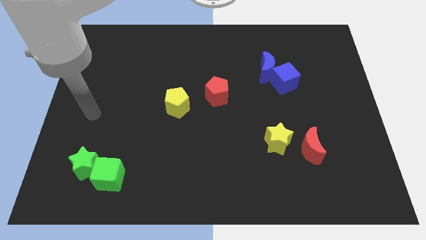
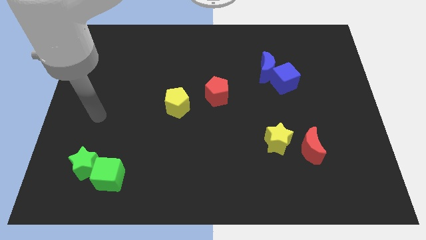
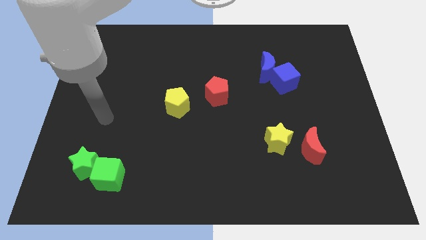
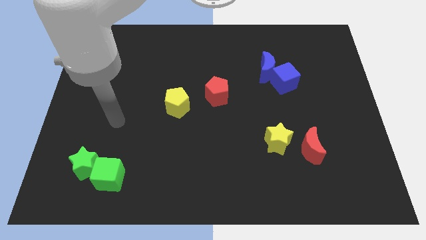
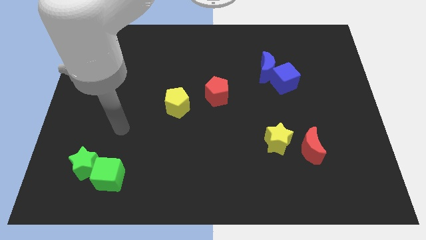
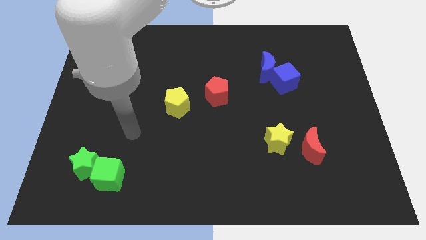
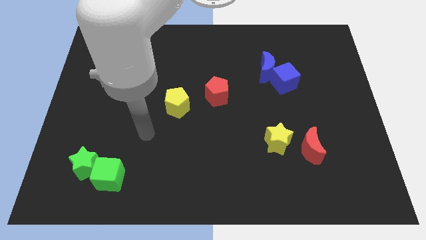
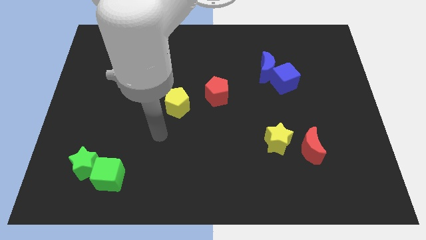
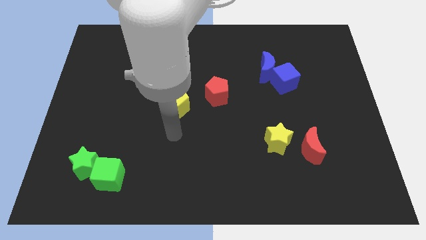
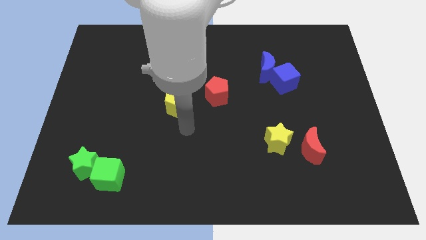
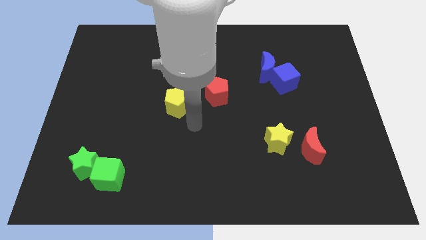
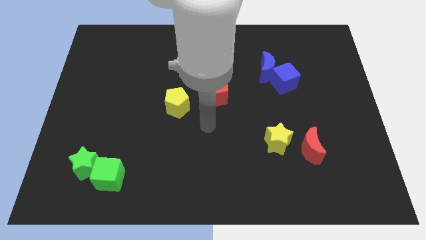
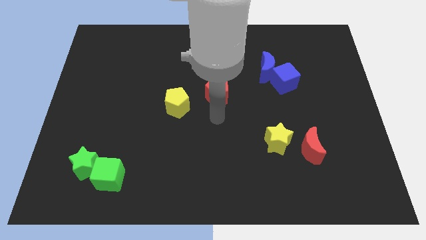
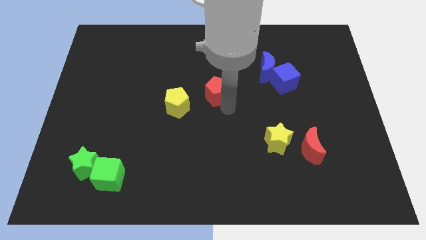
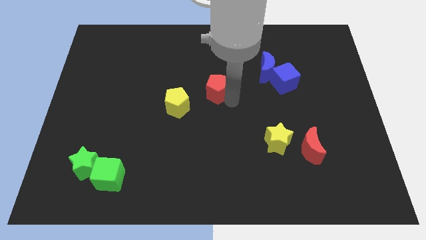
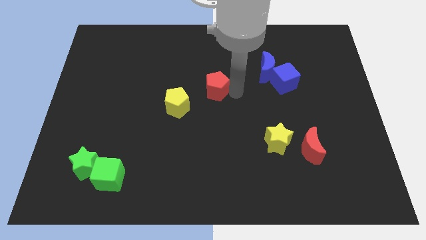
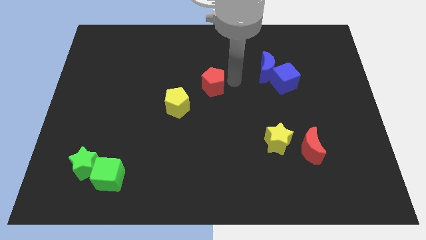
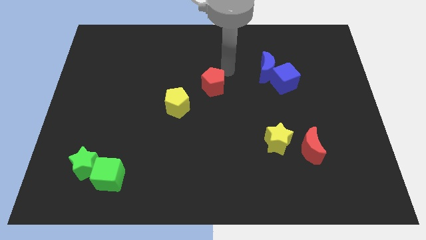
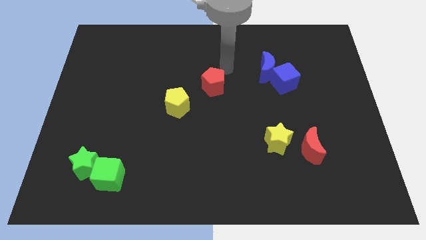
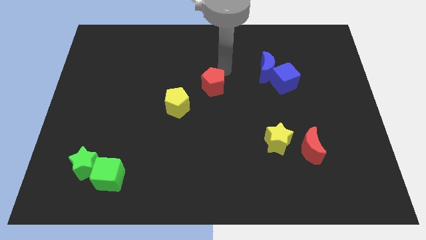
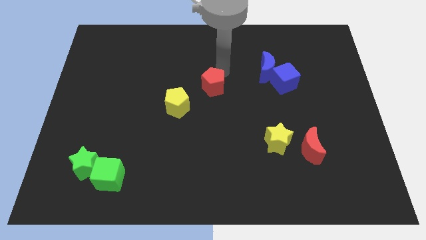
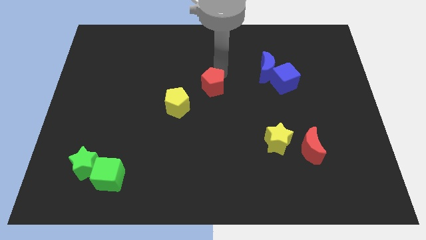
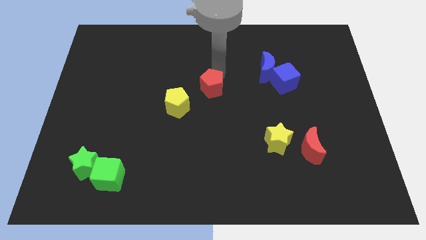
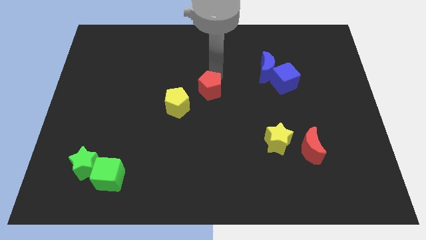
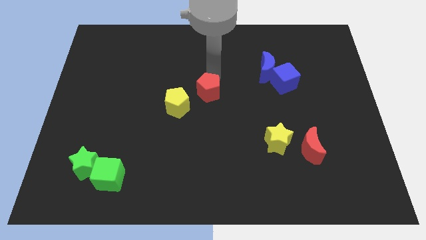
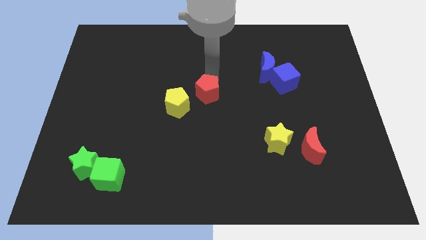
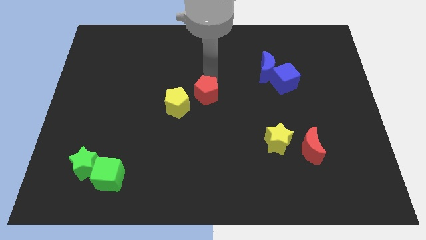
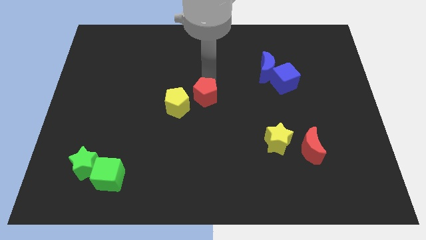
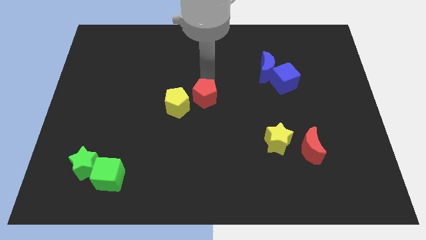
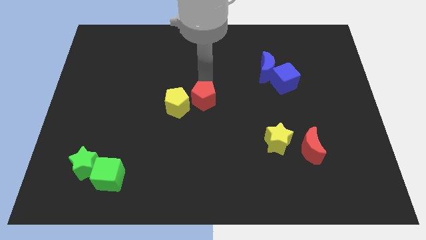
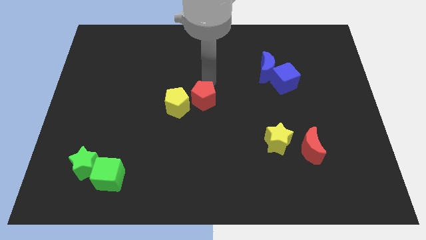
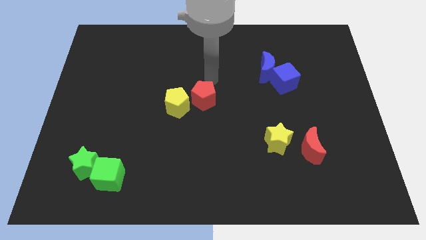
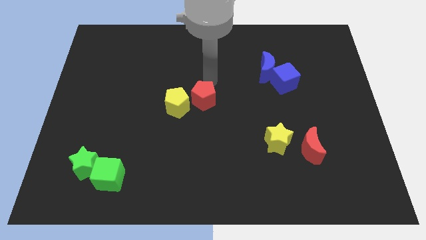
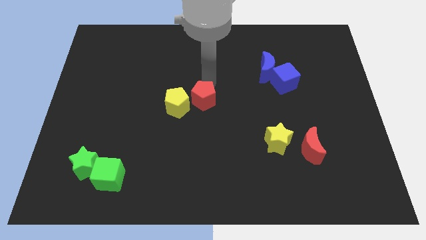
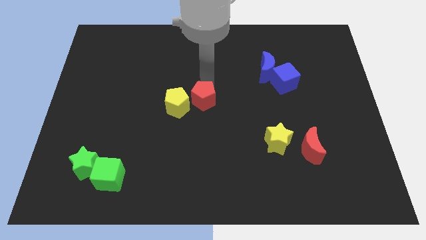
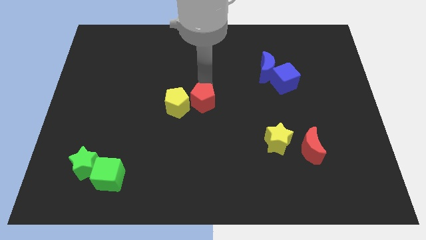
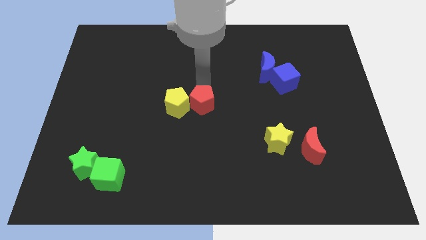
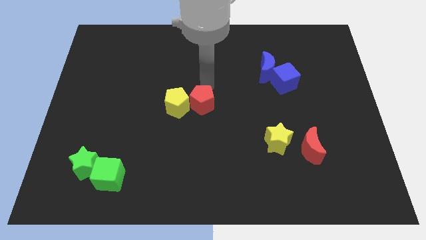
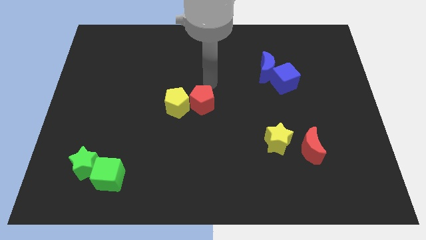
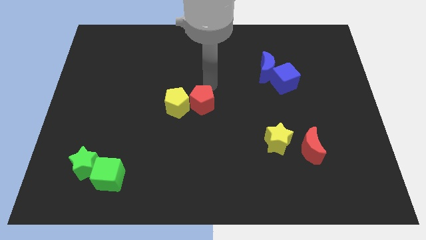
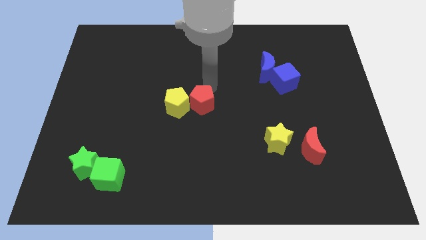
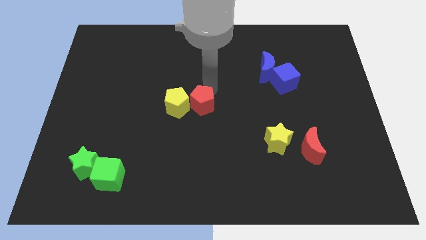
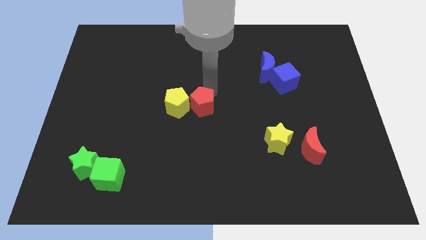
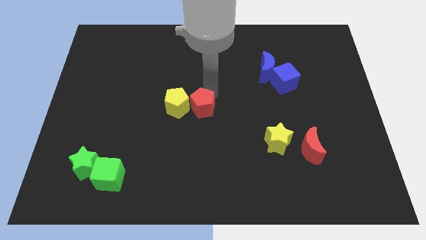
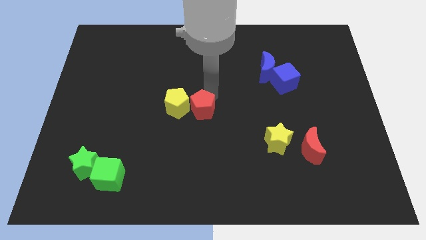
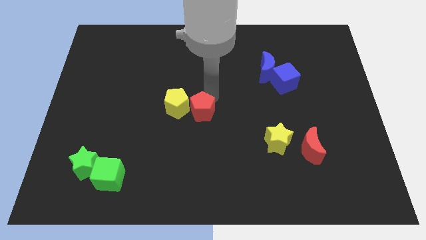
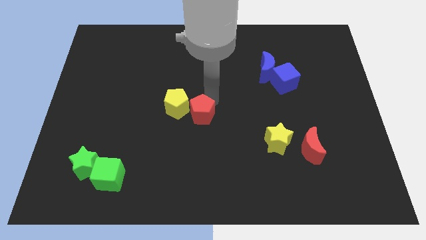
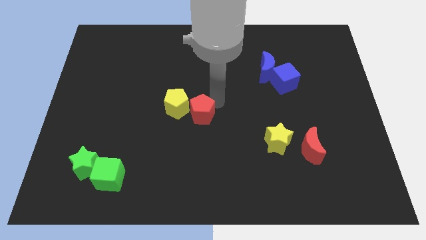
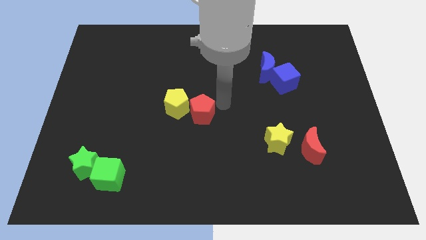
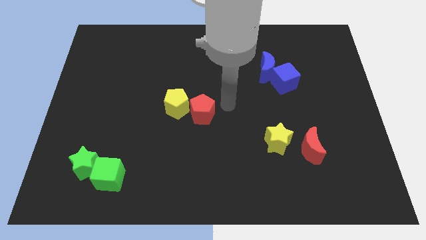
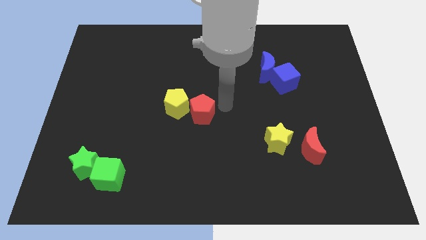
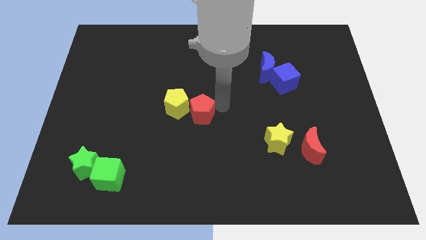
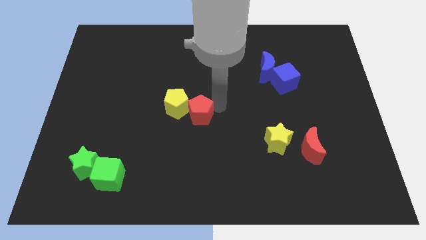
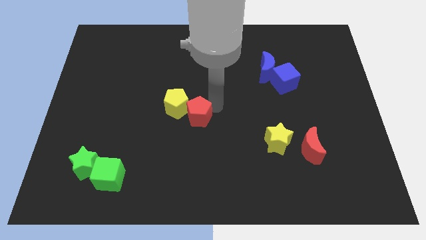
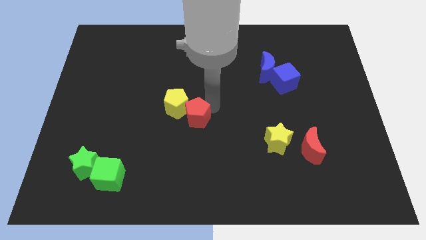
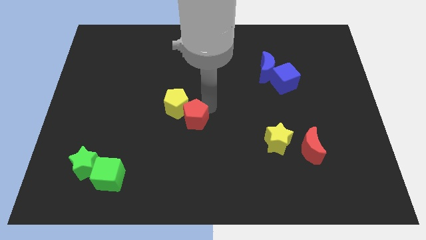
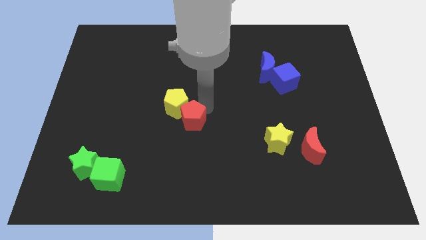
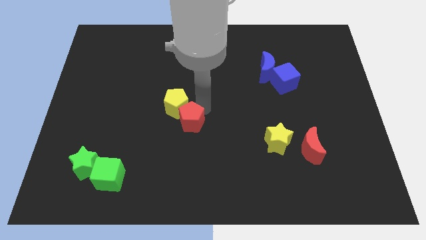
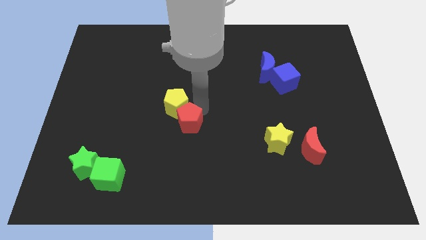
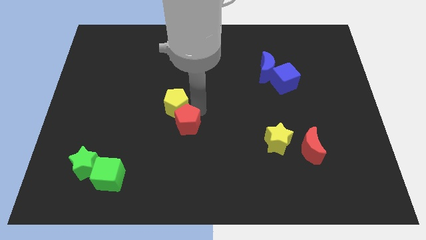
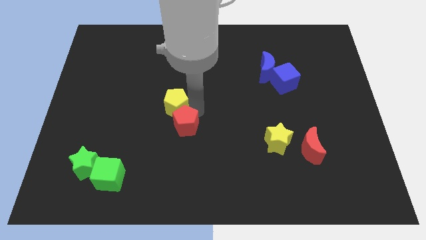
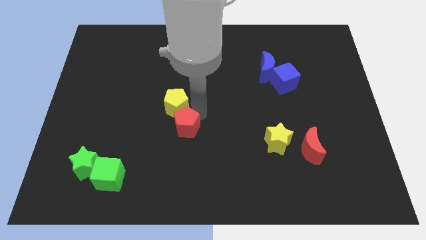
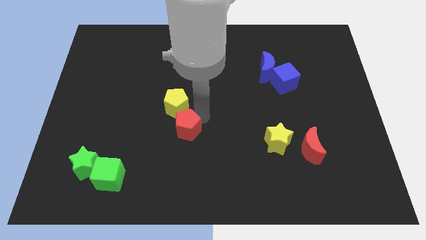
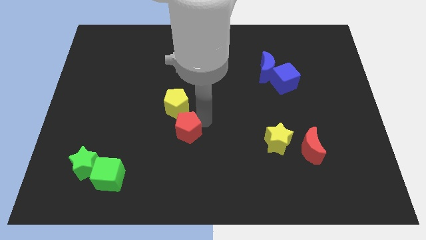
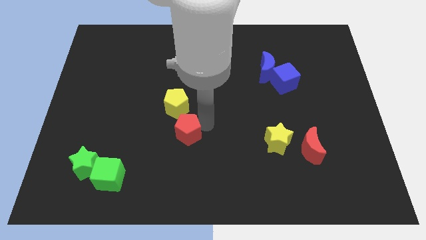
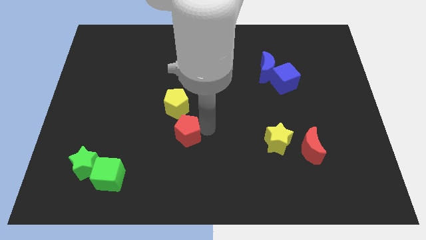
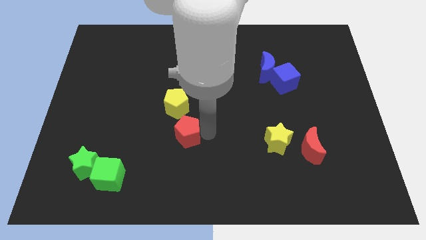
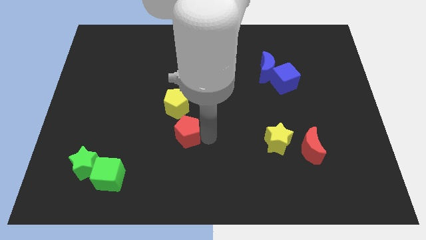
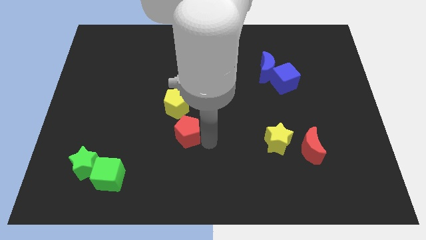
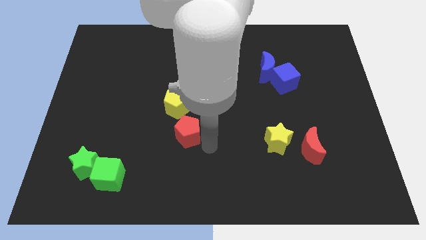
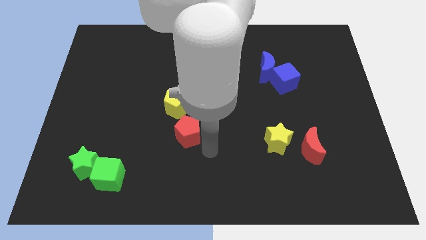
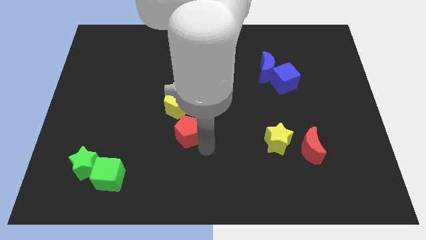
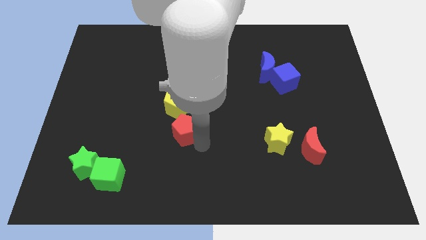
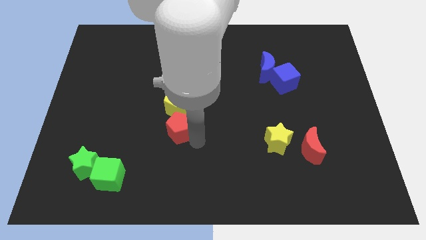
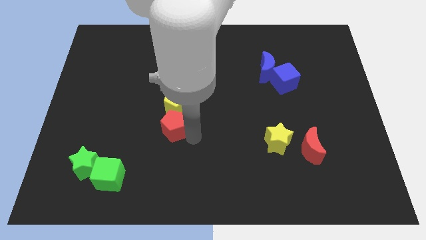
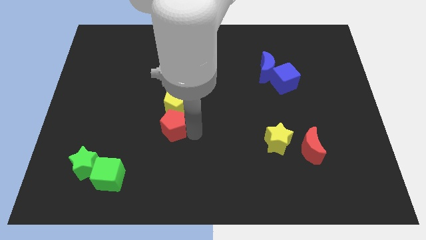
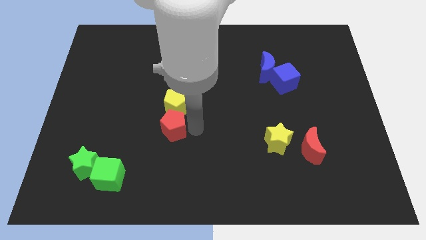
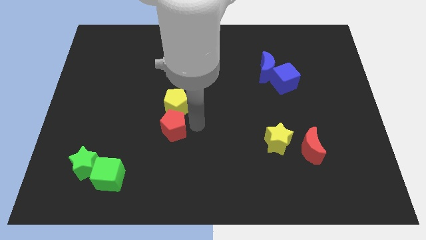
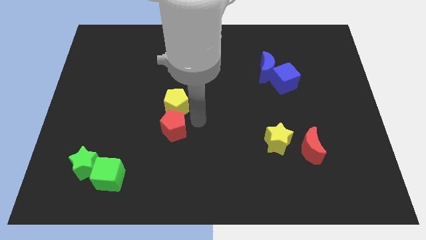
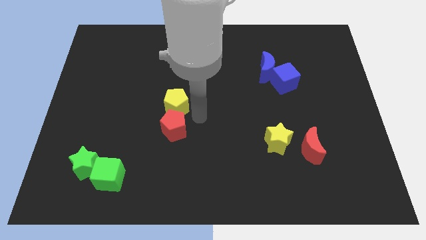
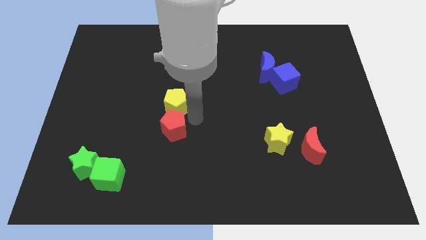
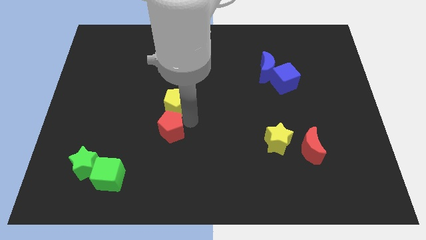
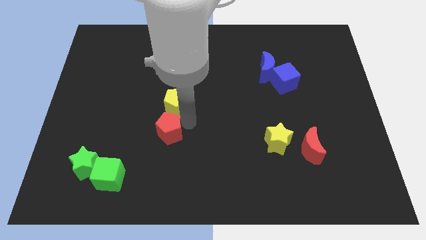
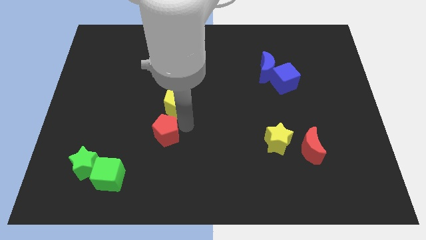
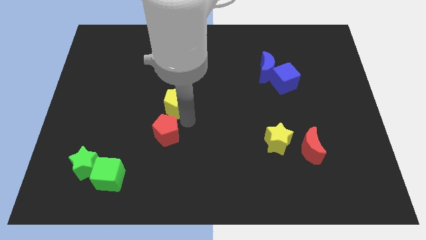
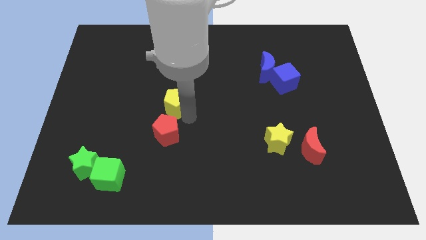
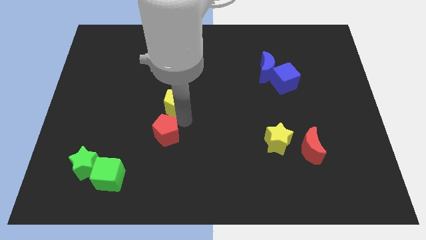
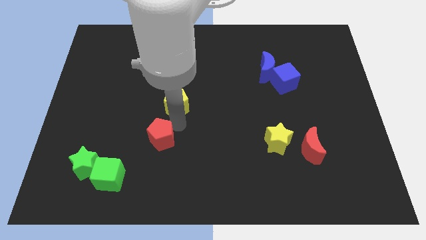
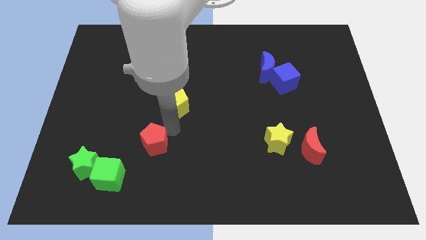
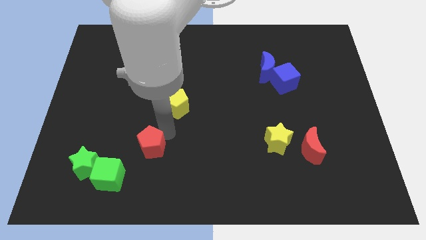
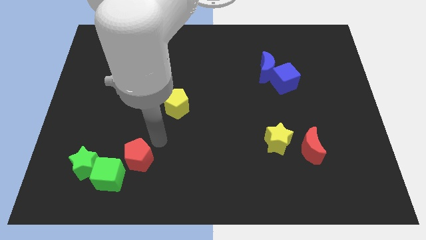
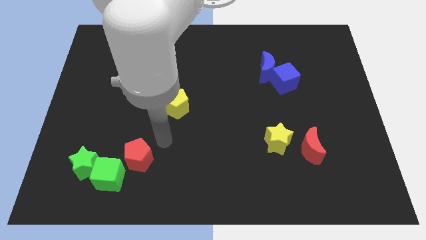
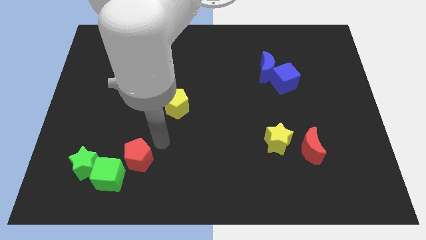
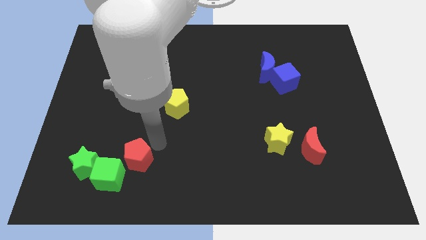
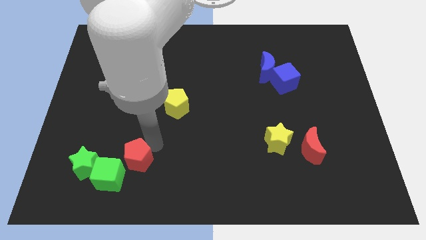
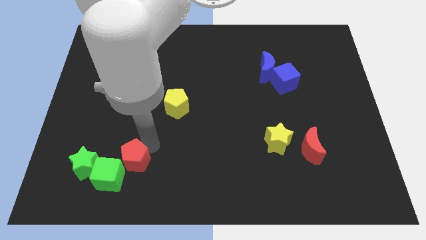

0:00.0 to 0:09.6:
push the red pentagon close to the green cube
